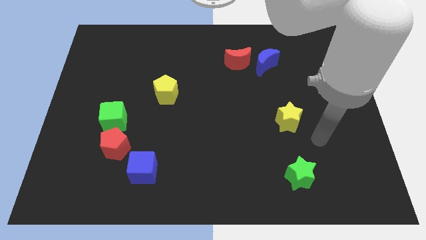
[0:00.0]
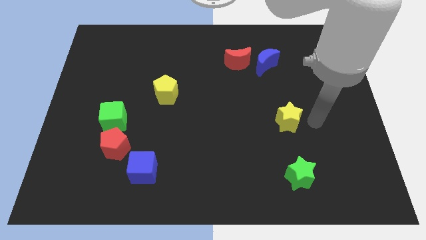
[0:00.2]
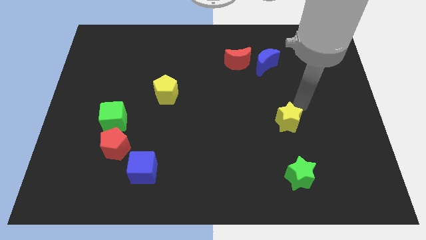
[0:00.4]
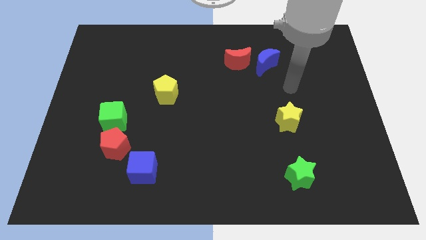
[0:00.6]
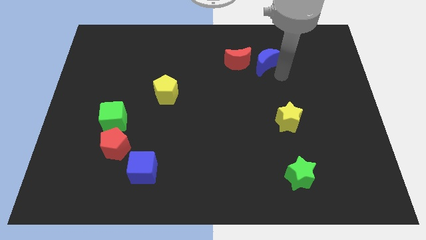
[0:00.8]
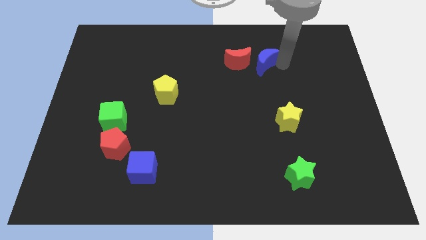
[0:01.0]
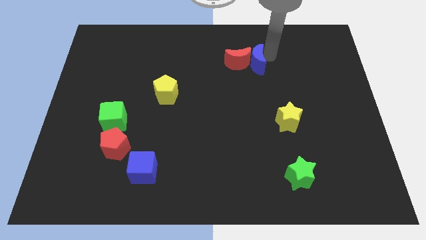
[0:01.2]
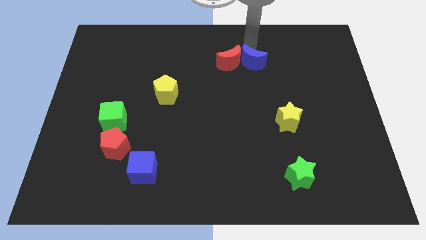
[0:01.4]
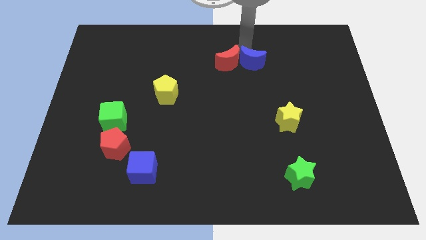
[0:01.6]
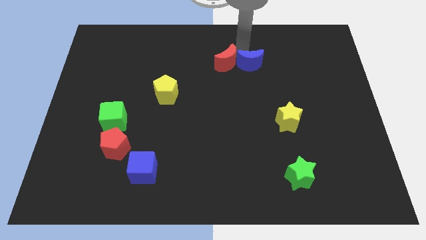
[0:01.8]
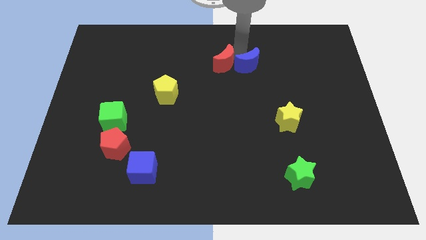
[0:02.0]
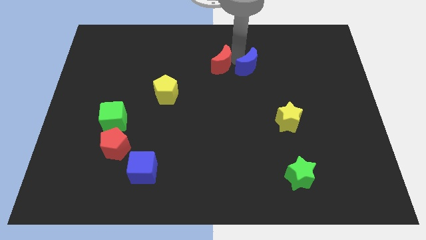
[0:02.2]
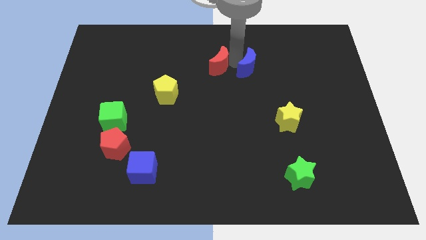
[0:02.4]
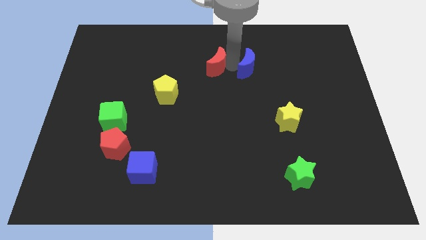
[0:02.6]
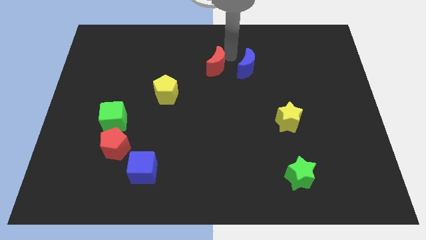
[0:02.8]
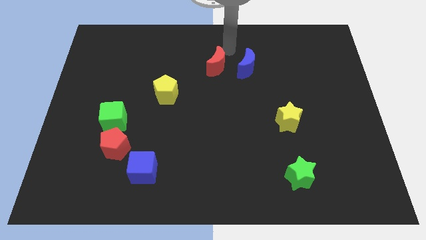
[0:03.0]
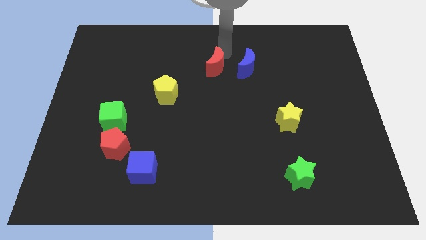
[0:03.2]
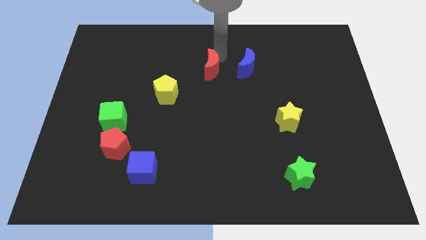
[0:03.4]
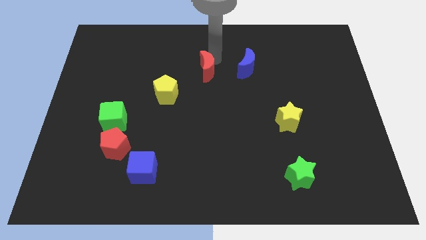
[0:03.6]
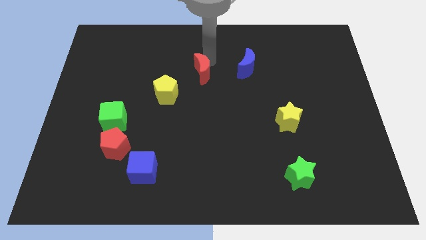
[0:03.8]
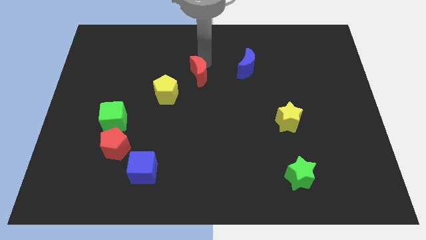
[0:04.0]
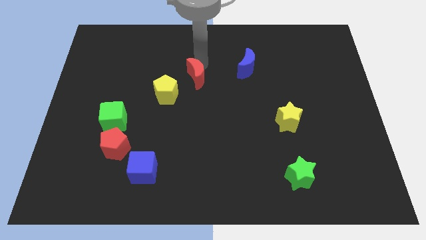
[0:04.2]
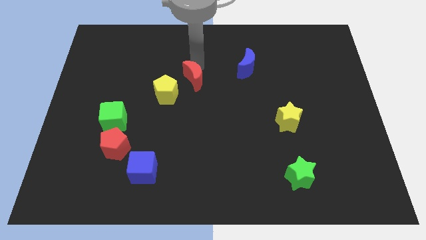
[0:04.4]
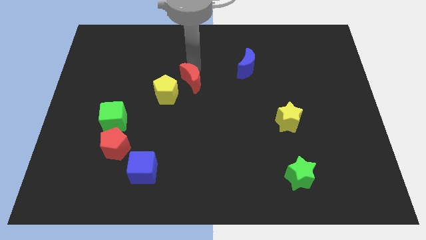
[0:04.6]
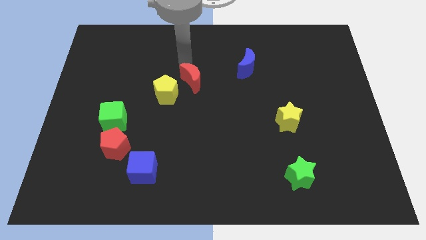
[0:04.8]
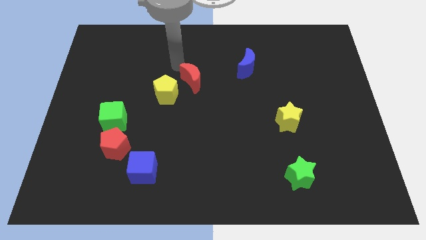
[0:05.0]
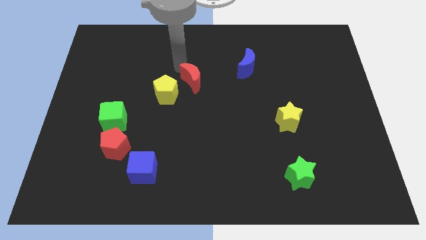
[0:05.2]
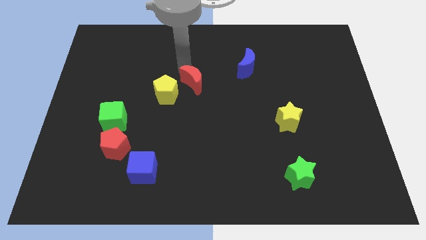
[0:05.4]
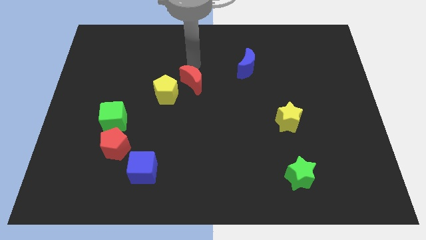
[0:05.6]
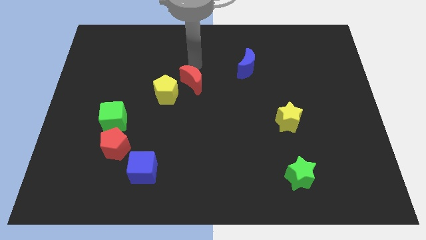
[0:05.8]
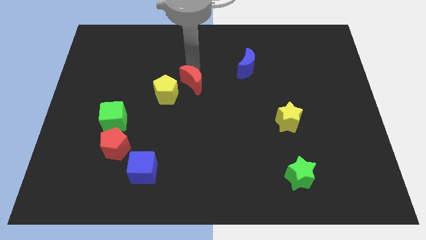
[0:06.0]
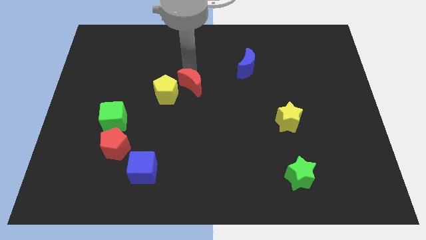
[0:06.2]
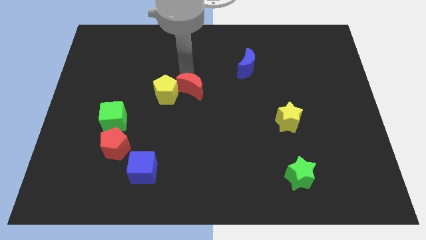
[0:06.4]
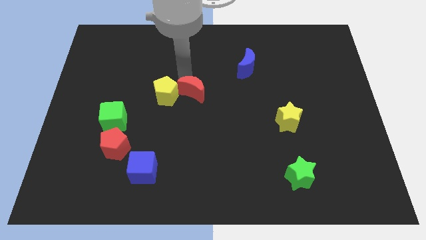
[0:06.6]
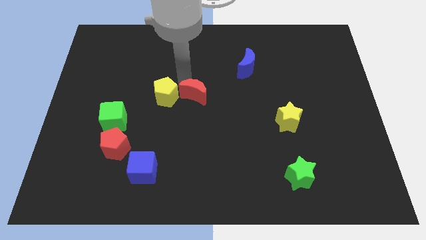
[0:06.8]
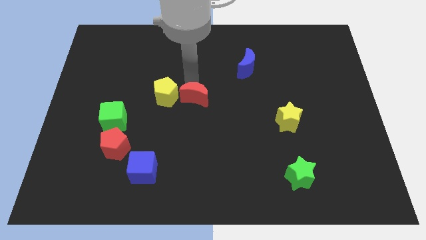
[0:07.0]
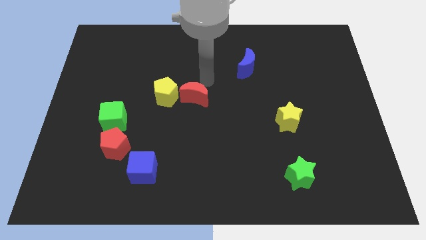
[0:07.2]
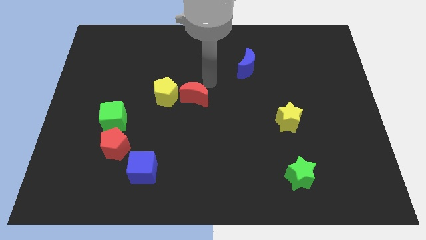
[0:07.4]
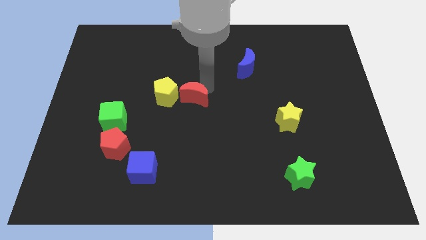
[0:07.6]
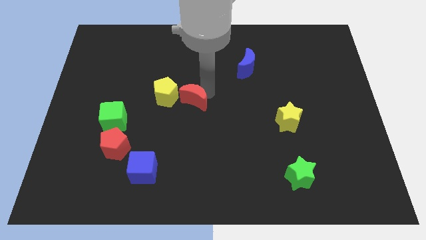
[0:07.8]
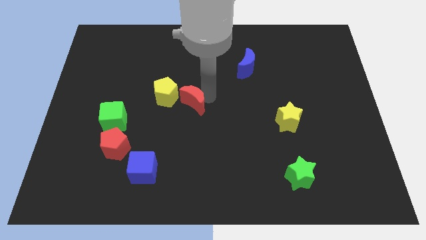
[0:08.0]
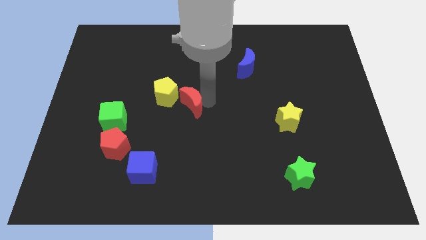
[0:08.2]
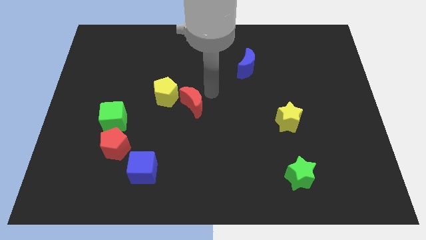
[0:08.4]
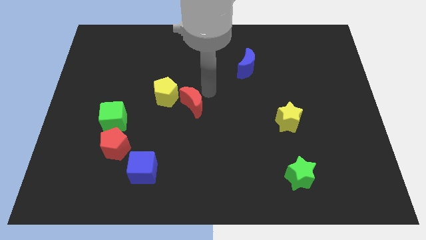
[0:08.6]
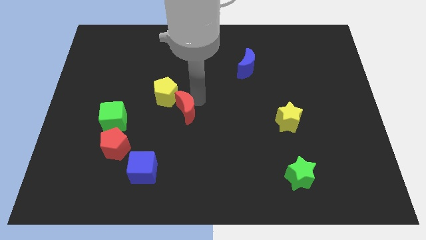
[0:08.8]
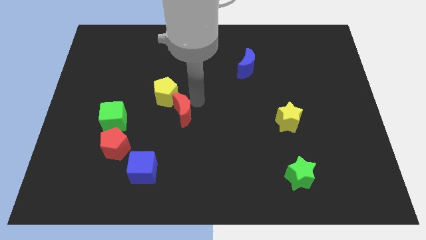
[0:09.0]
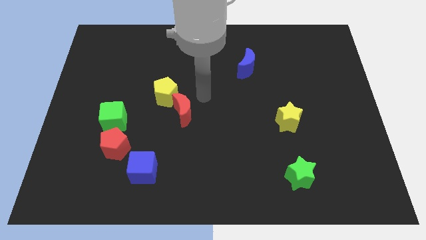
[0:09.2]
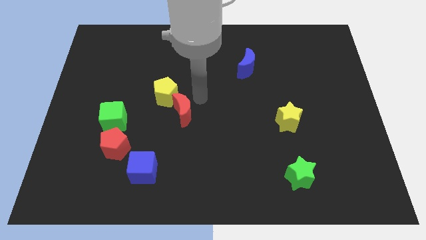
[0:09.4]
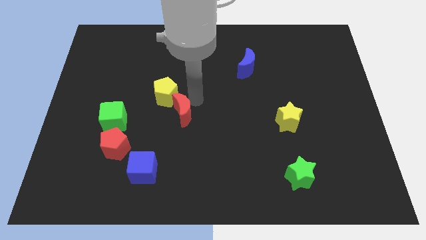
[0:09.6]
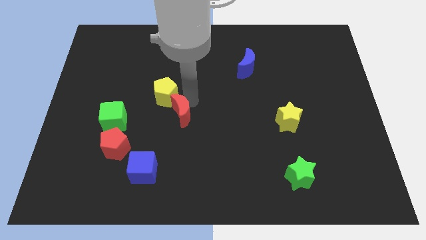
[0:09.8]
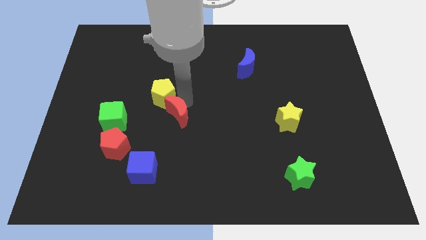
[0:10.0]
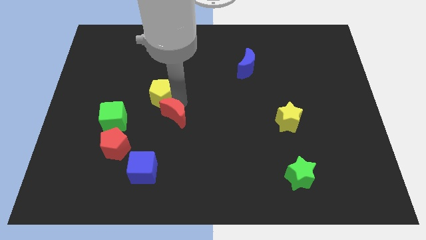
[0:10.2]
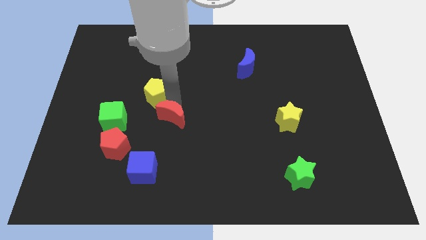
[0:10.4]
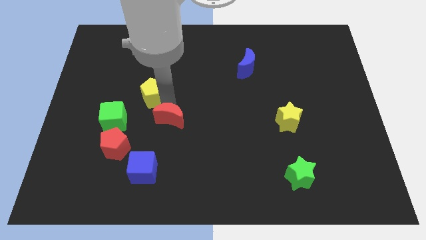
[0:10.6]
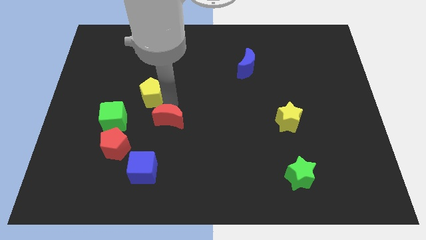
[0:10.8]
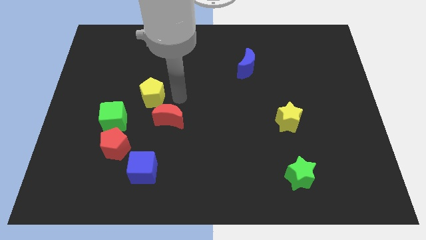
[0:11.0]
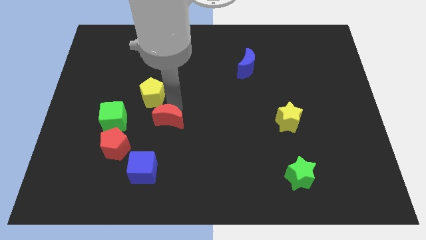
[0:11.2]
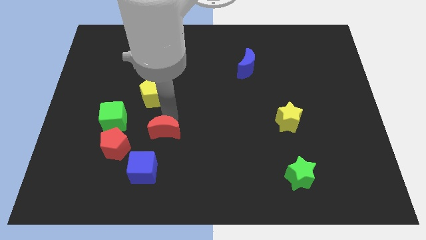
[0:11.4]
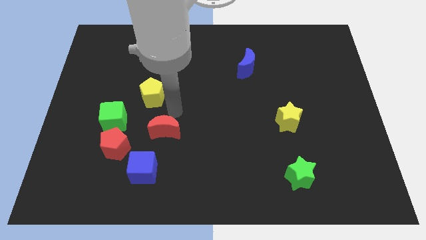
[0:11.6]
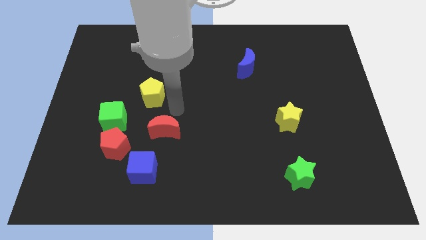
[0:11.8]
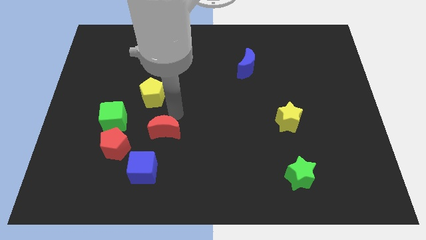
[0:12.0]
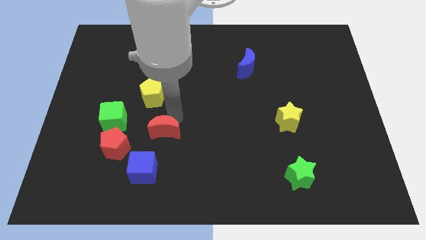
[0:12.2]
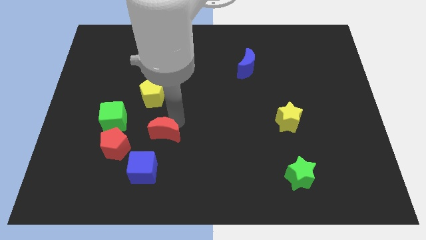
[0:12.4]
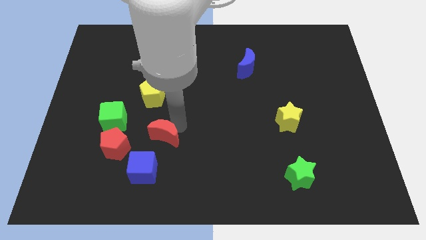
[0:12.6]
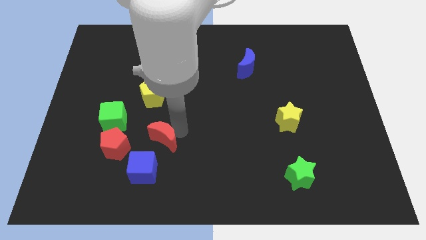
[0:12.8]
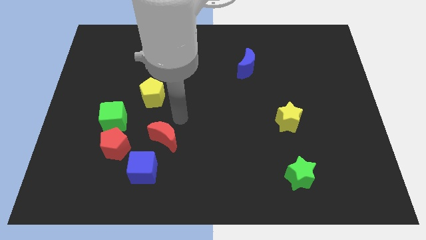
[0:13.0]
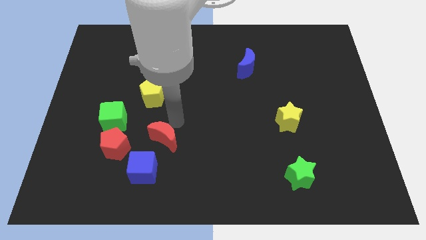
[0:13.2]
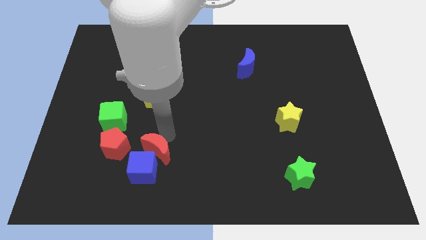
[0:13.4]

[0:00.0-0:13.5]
move the red moon to the blue cube

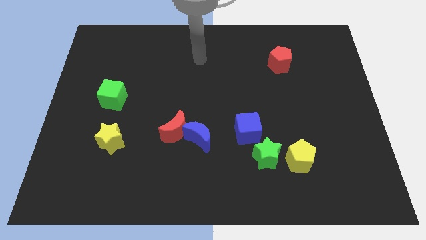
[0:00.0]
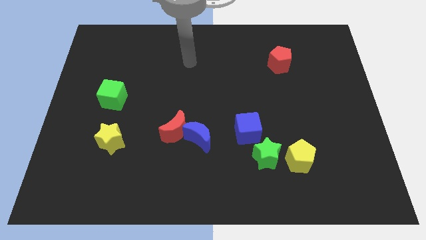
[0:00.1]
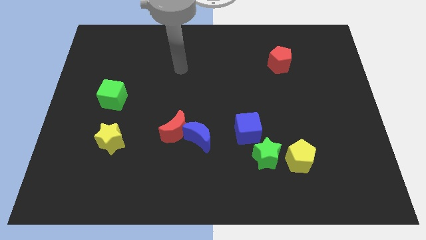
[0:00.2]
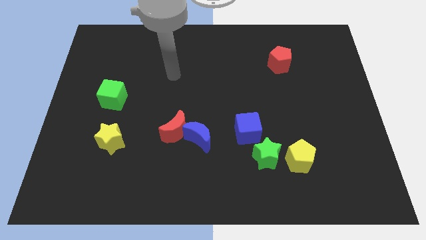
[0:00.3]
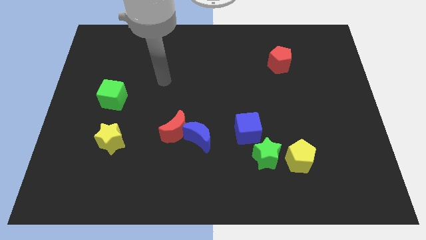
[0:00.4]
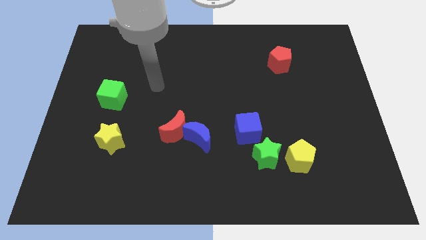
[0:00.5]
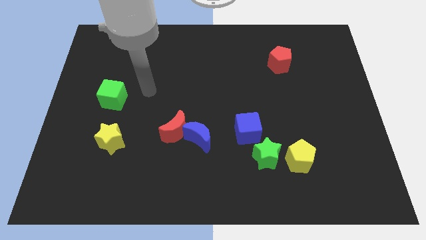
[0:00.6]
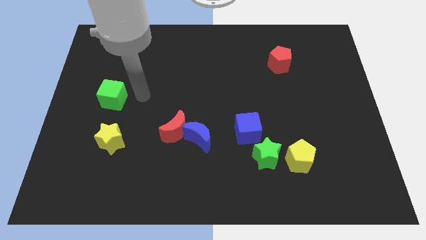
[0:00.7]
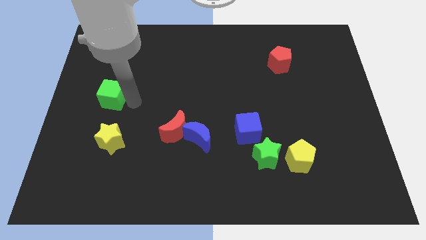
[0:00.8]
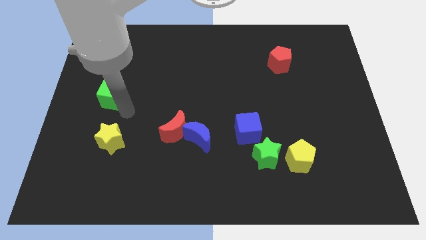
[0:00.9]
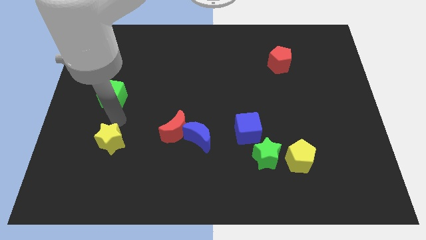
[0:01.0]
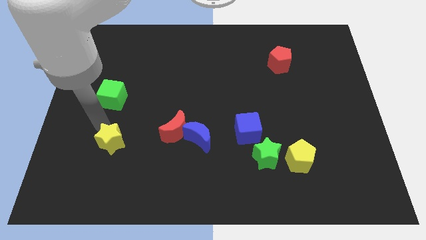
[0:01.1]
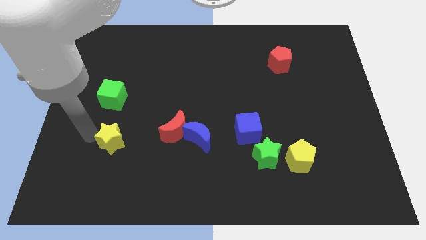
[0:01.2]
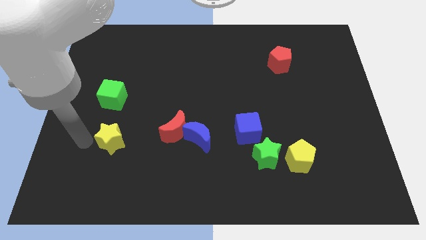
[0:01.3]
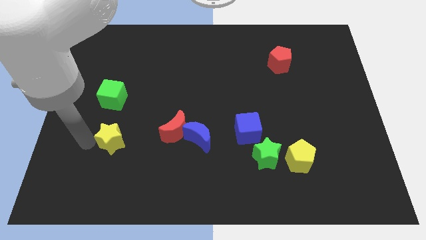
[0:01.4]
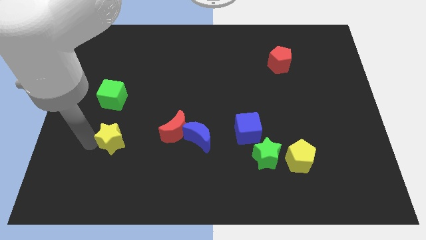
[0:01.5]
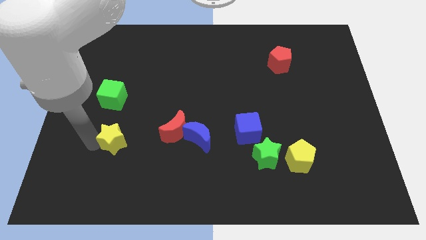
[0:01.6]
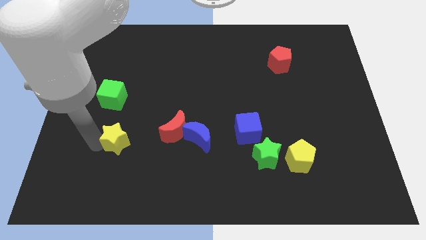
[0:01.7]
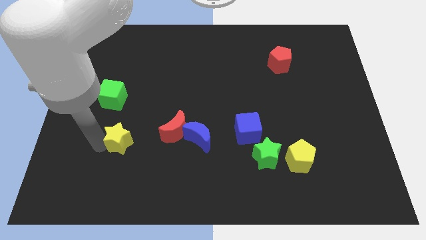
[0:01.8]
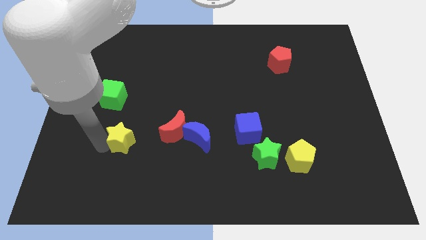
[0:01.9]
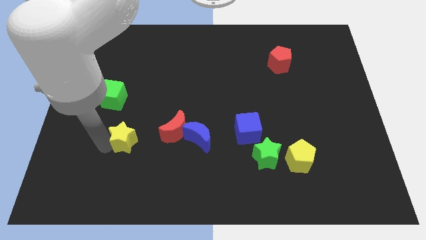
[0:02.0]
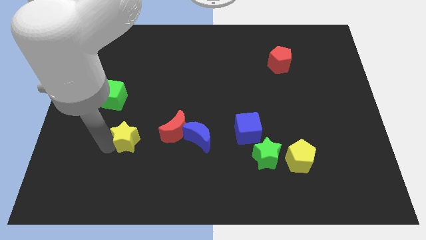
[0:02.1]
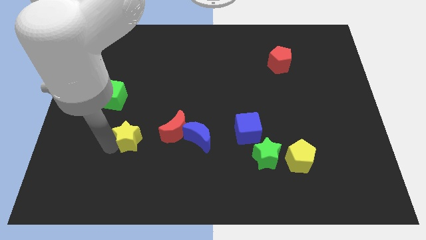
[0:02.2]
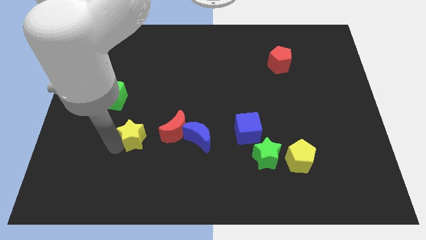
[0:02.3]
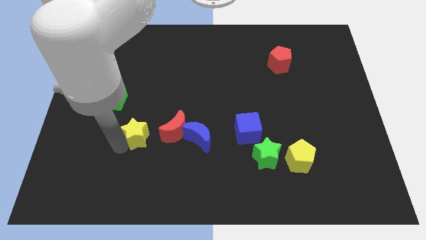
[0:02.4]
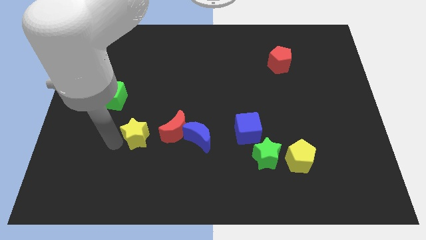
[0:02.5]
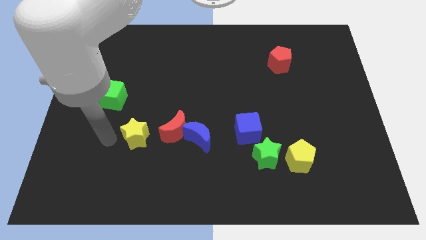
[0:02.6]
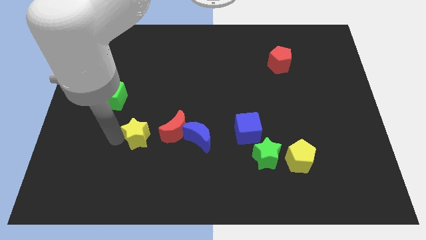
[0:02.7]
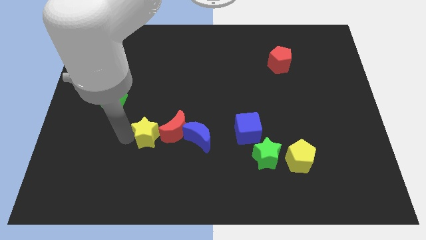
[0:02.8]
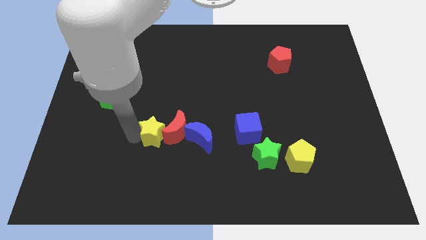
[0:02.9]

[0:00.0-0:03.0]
slide the yellow star close to the red moon
